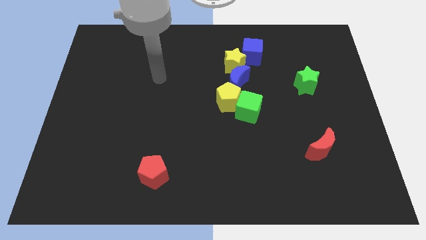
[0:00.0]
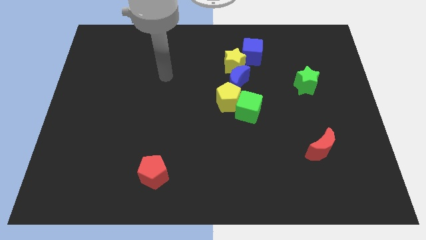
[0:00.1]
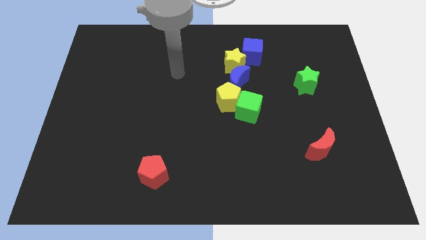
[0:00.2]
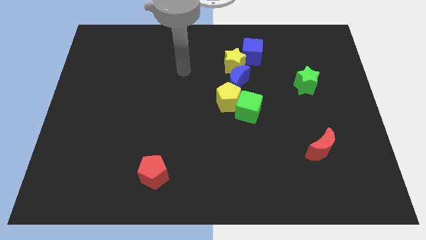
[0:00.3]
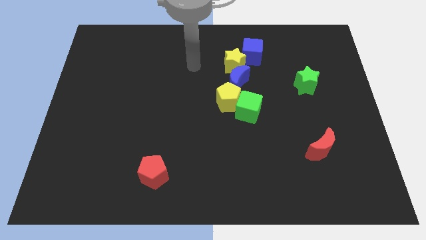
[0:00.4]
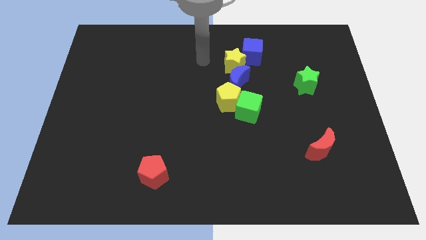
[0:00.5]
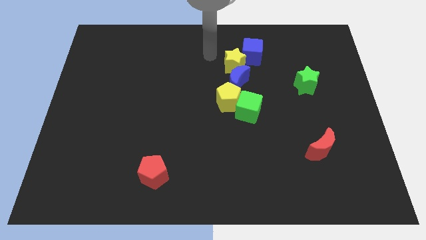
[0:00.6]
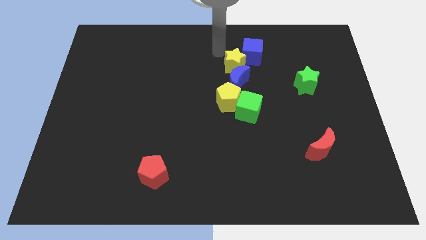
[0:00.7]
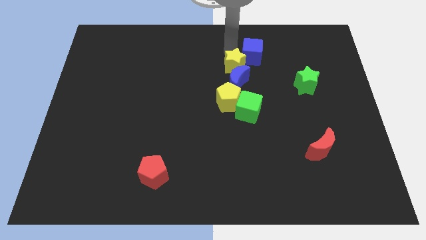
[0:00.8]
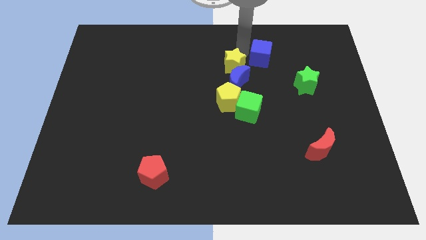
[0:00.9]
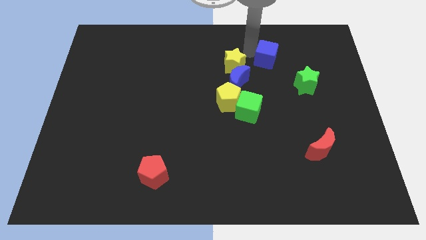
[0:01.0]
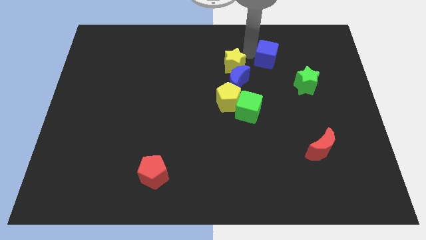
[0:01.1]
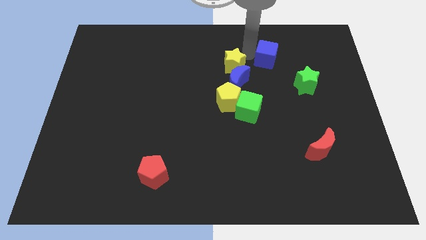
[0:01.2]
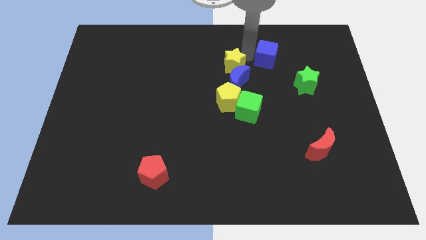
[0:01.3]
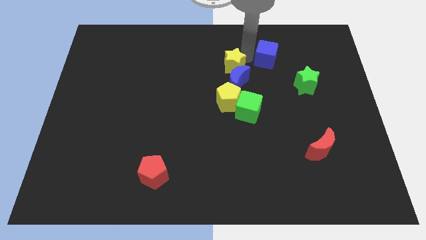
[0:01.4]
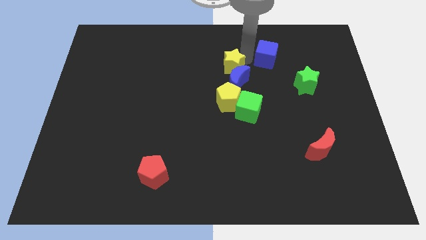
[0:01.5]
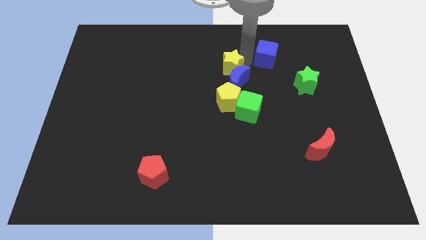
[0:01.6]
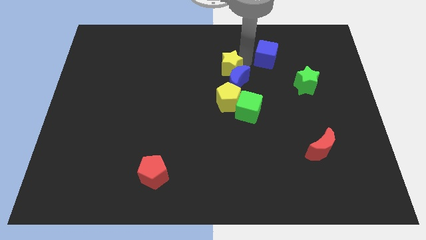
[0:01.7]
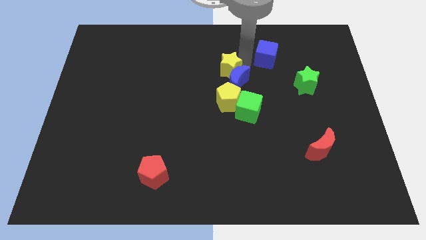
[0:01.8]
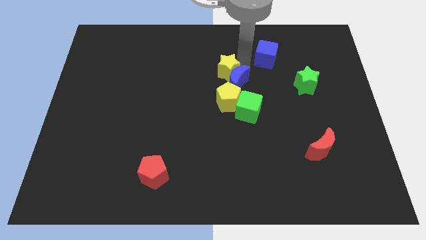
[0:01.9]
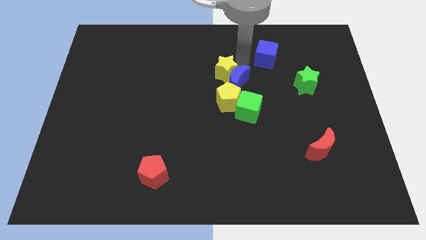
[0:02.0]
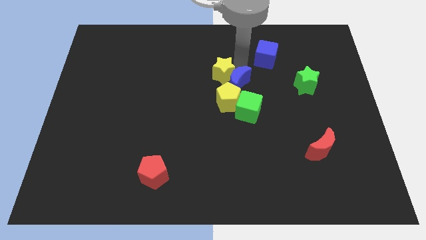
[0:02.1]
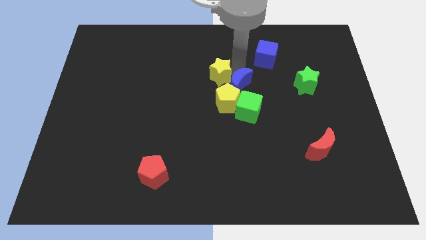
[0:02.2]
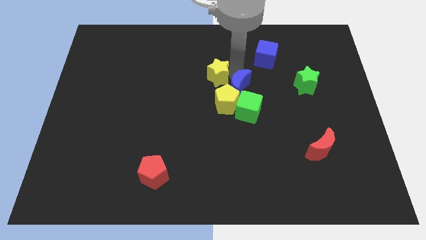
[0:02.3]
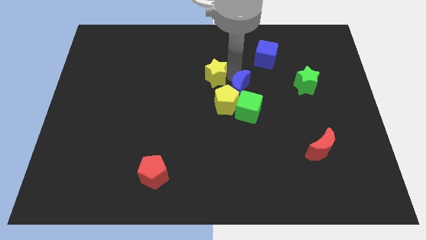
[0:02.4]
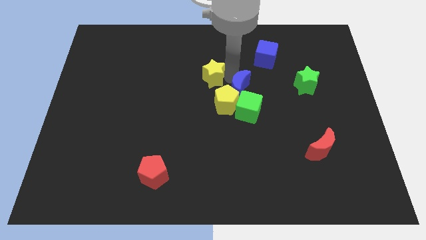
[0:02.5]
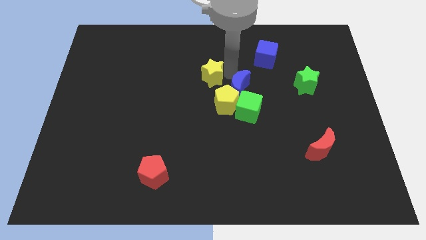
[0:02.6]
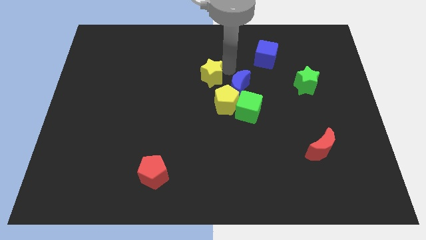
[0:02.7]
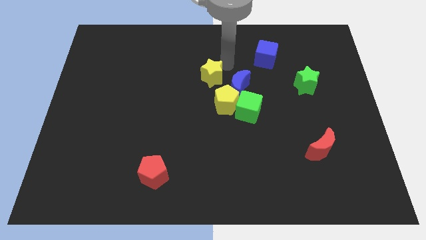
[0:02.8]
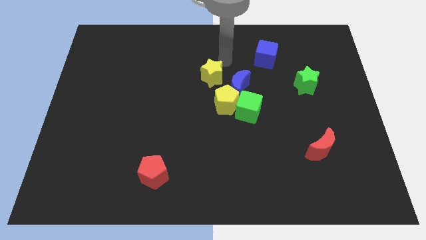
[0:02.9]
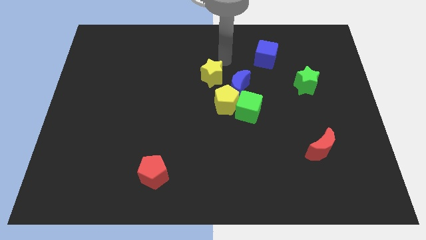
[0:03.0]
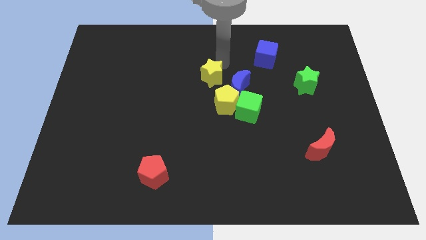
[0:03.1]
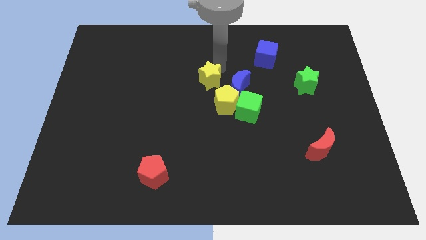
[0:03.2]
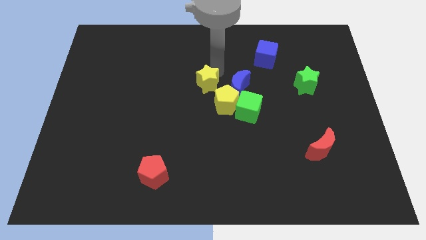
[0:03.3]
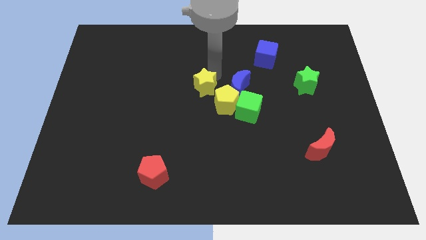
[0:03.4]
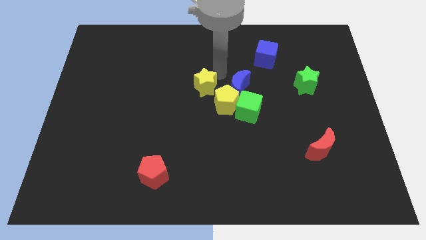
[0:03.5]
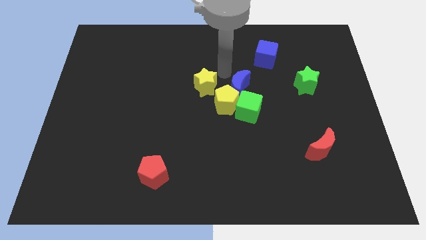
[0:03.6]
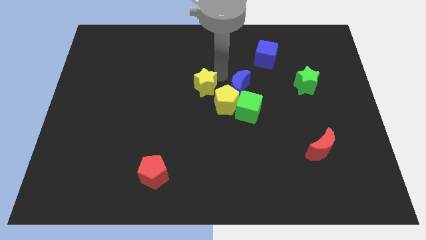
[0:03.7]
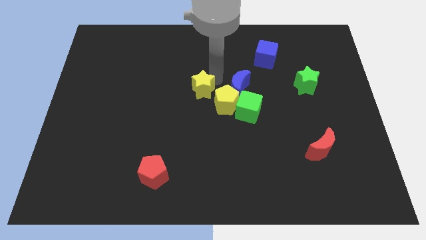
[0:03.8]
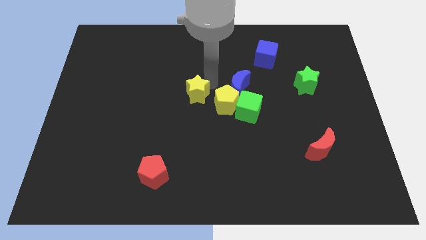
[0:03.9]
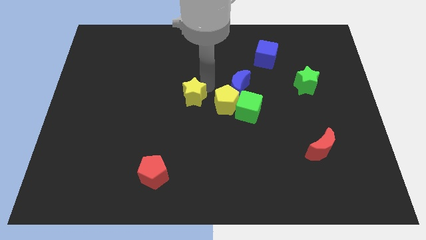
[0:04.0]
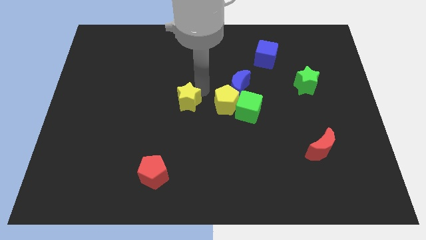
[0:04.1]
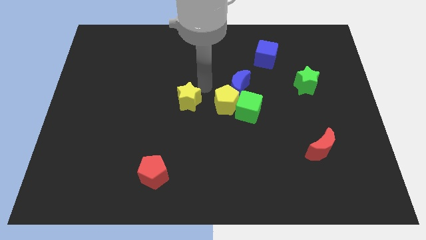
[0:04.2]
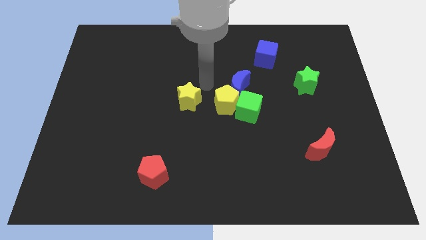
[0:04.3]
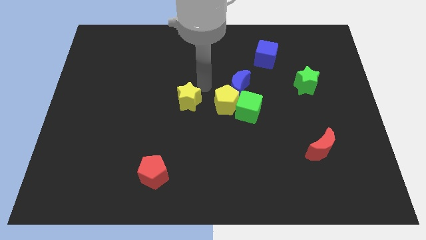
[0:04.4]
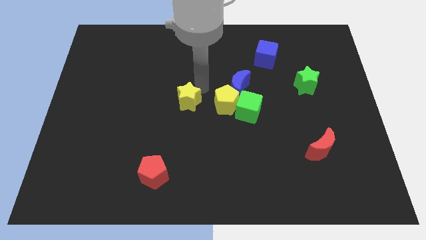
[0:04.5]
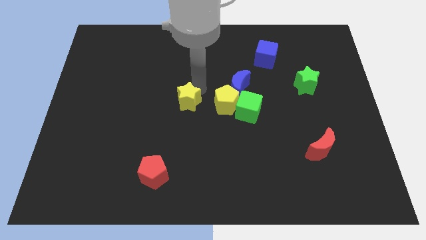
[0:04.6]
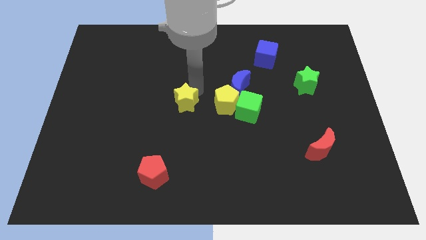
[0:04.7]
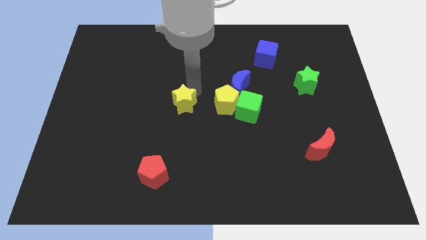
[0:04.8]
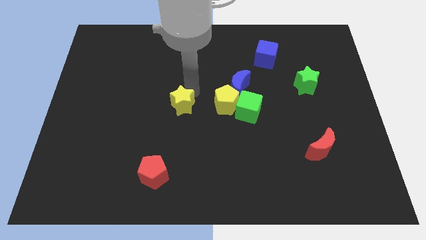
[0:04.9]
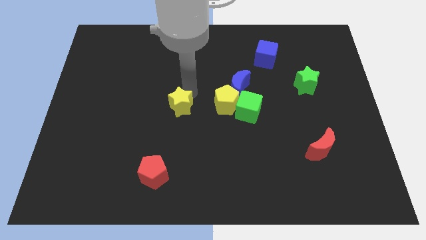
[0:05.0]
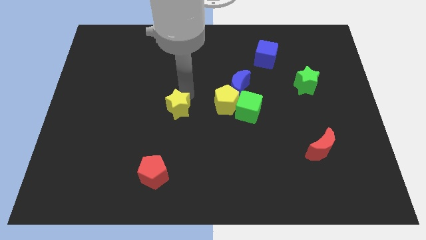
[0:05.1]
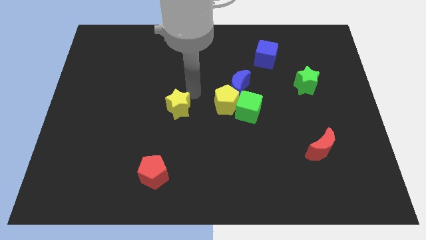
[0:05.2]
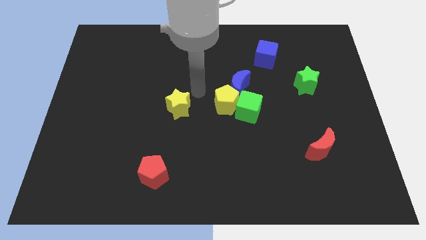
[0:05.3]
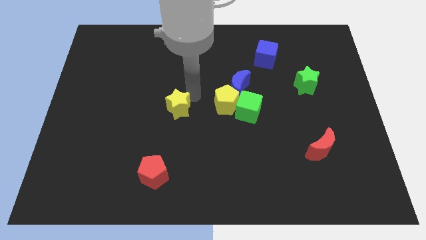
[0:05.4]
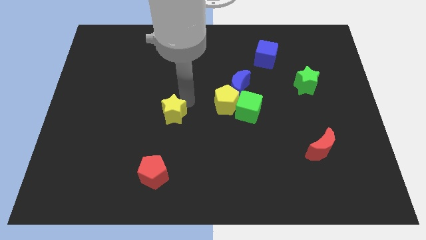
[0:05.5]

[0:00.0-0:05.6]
slide the yellow star downwards and then to the left

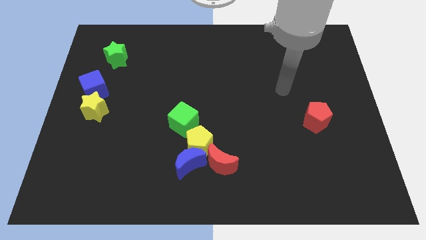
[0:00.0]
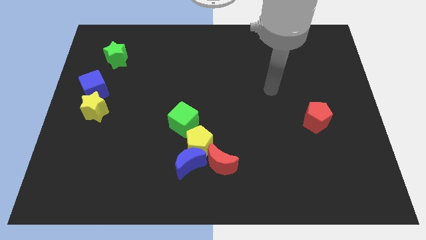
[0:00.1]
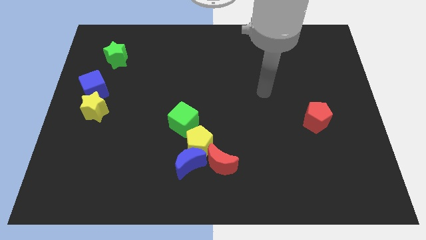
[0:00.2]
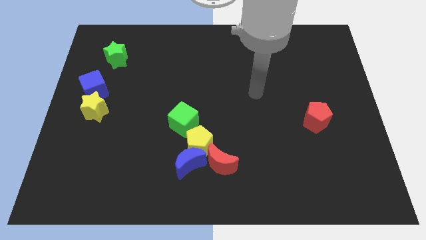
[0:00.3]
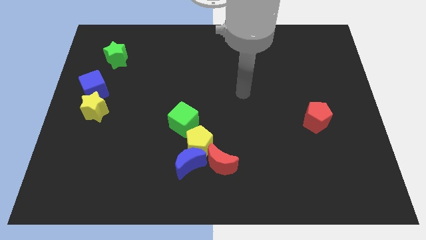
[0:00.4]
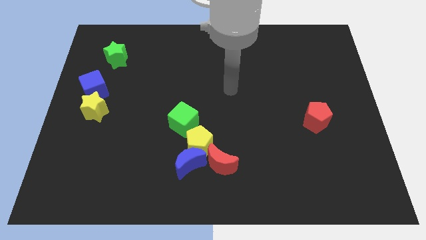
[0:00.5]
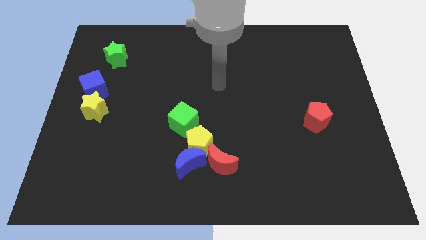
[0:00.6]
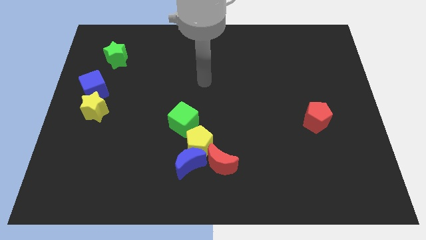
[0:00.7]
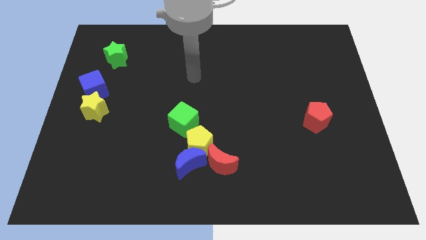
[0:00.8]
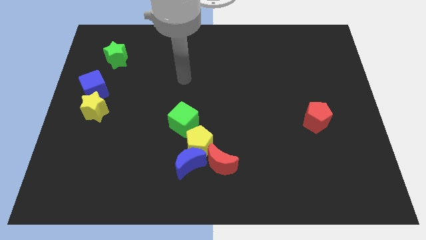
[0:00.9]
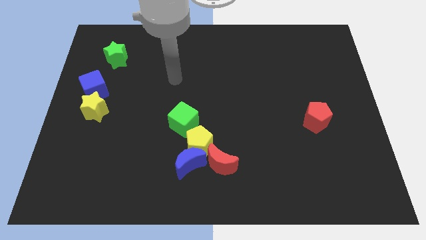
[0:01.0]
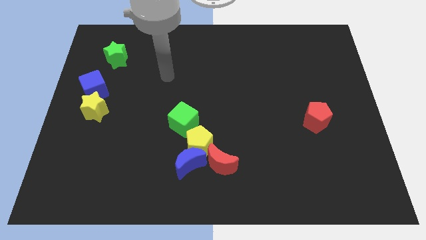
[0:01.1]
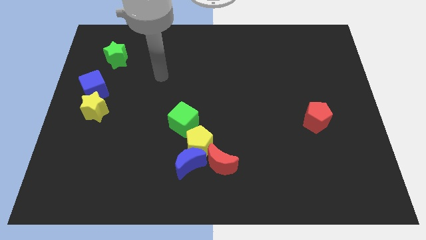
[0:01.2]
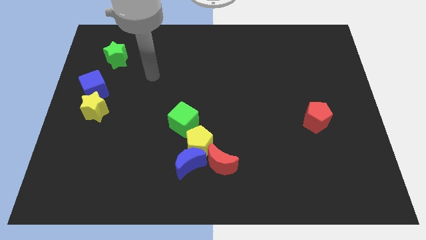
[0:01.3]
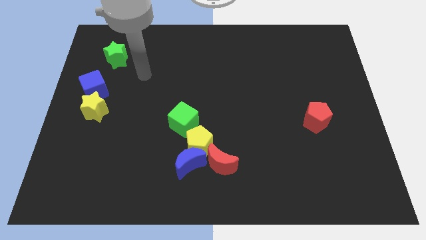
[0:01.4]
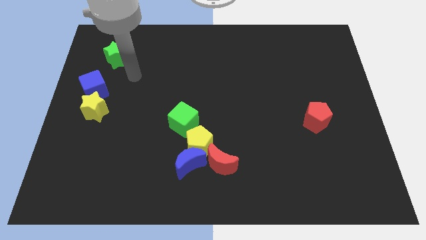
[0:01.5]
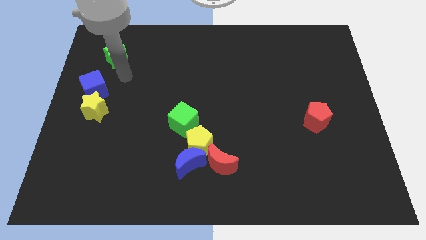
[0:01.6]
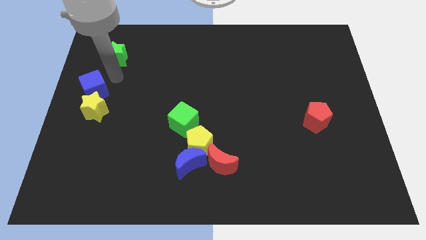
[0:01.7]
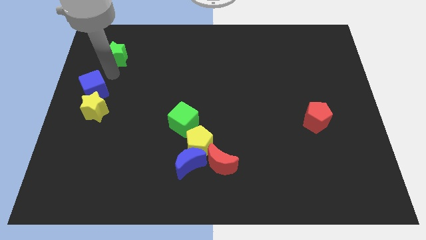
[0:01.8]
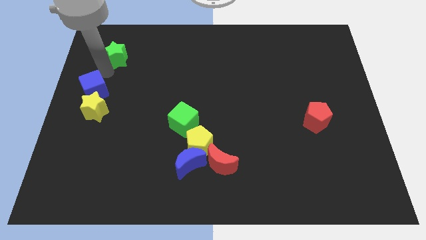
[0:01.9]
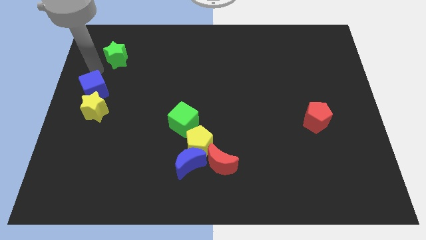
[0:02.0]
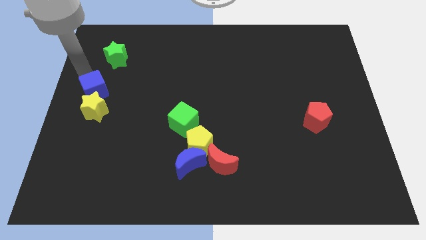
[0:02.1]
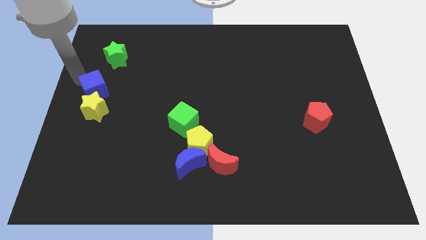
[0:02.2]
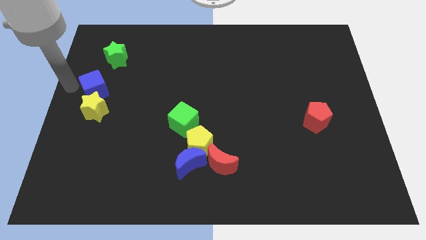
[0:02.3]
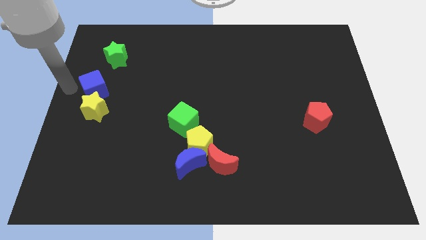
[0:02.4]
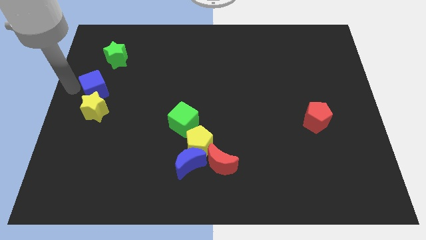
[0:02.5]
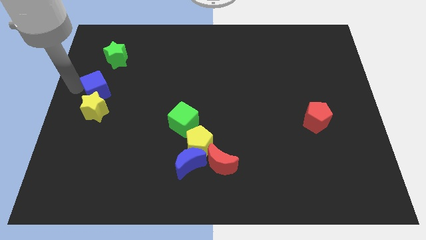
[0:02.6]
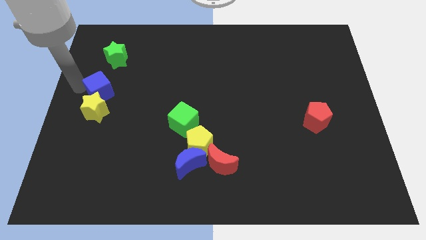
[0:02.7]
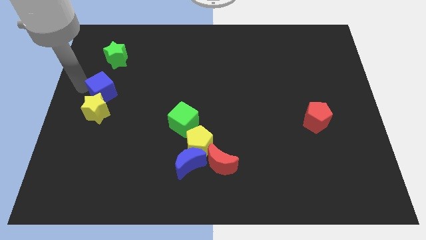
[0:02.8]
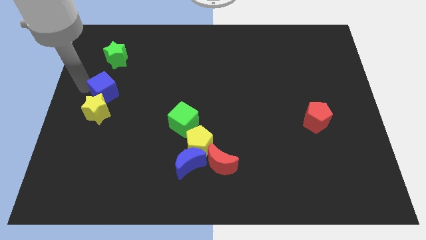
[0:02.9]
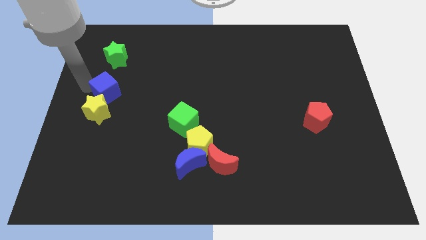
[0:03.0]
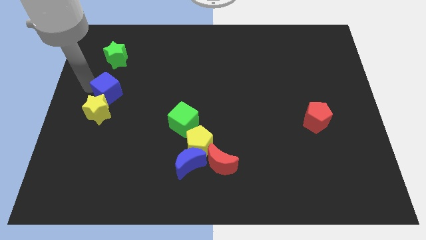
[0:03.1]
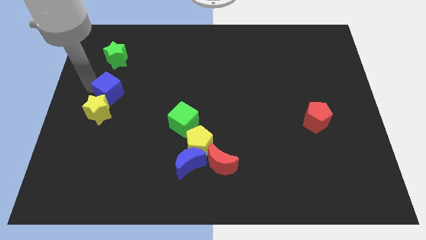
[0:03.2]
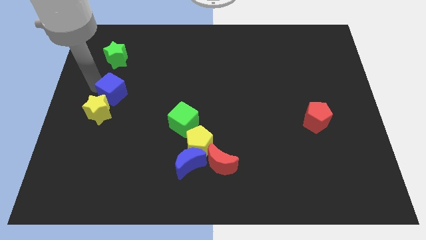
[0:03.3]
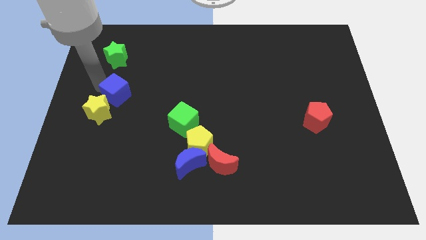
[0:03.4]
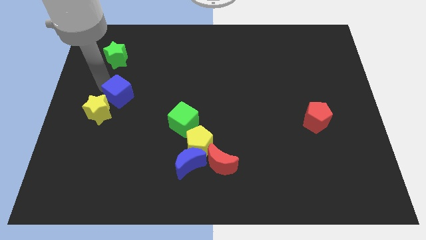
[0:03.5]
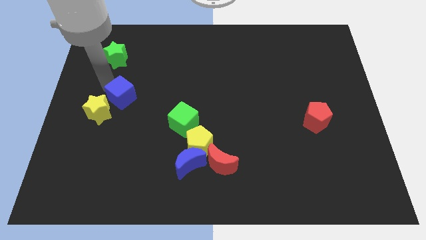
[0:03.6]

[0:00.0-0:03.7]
slightly move the blue cube right
